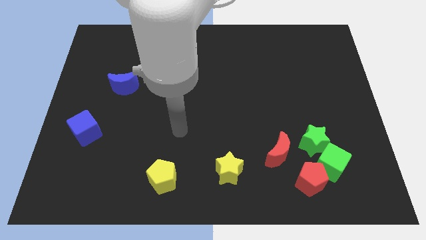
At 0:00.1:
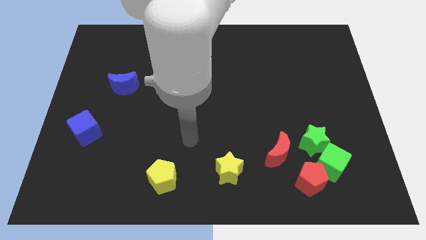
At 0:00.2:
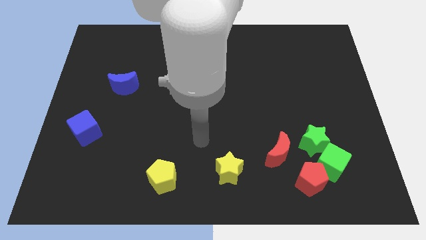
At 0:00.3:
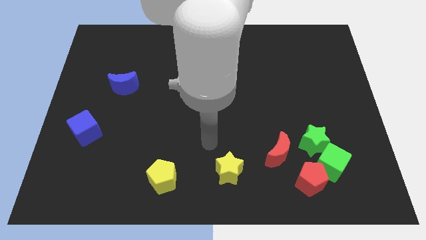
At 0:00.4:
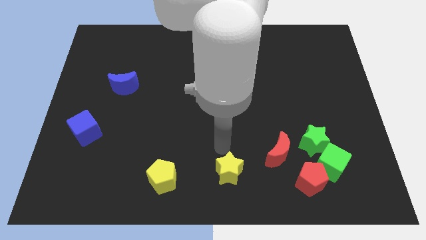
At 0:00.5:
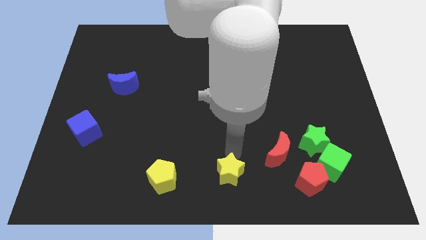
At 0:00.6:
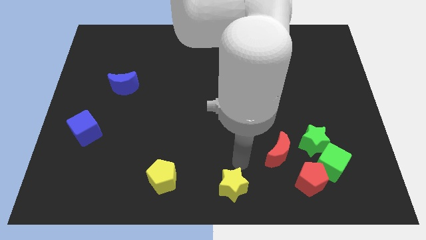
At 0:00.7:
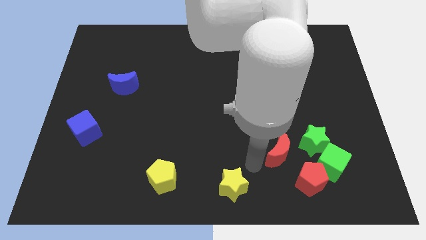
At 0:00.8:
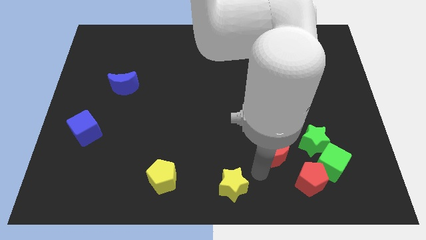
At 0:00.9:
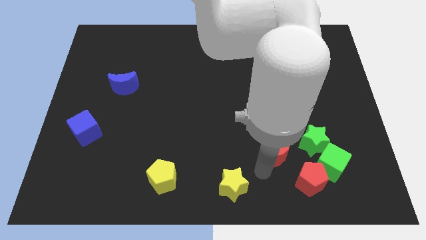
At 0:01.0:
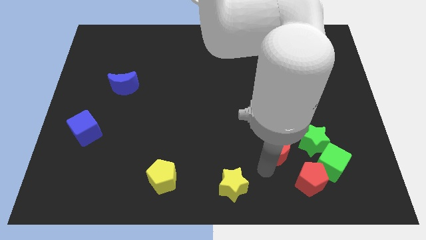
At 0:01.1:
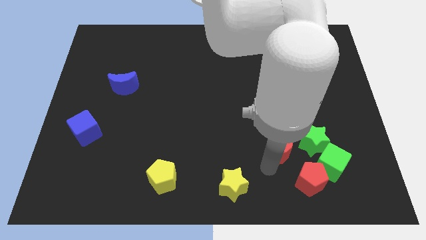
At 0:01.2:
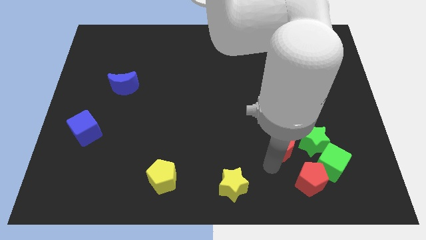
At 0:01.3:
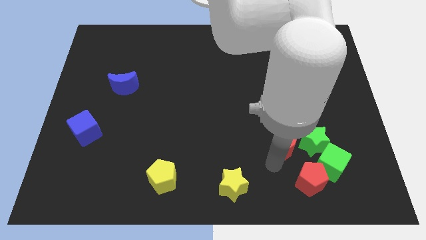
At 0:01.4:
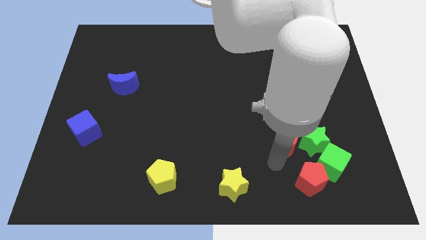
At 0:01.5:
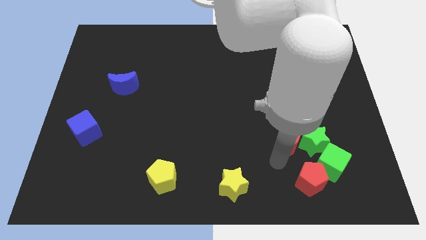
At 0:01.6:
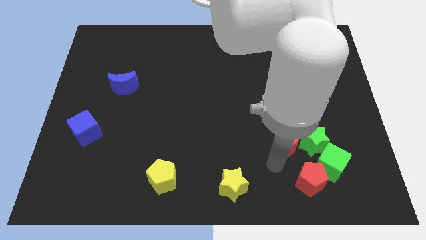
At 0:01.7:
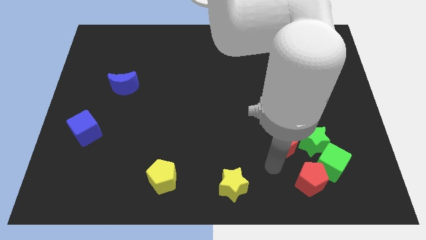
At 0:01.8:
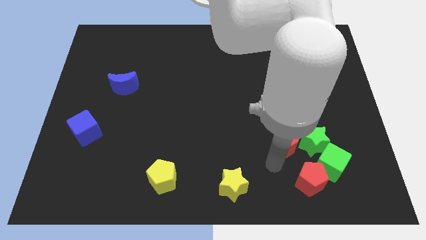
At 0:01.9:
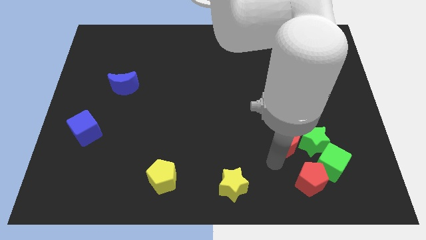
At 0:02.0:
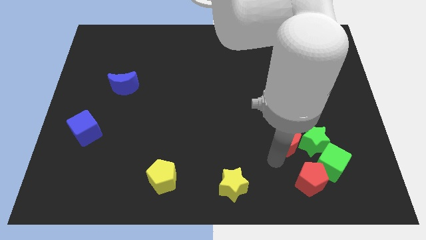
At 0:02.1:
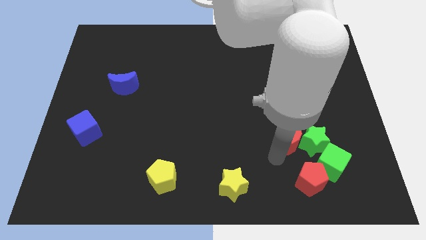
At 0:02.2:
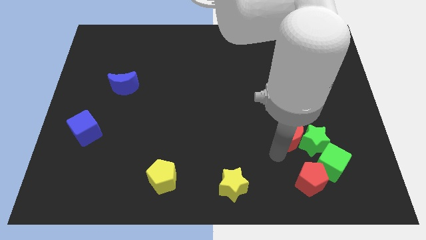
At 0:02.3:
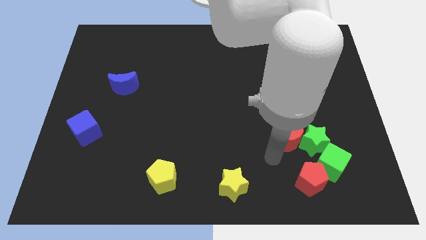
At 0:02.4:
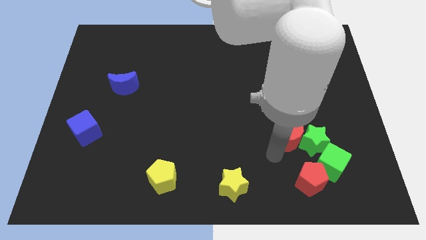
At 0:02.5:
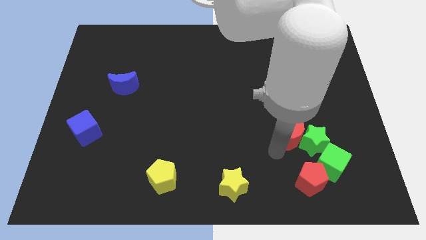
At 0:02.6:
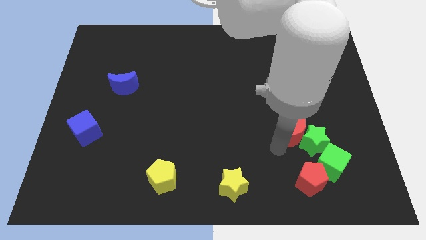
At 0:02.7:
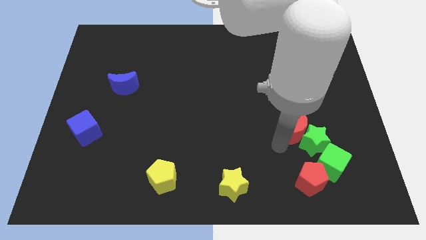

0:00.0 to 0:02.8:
move the red moon upwards and right a little bit

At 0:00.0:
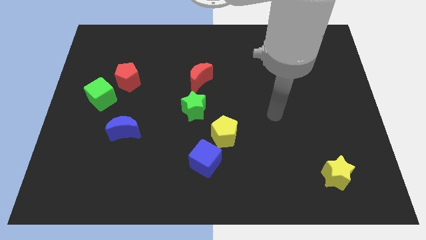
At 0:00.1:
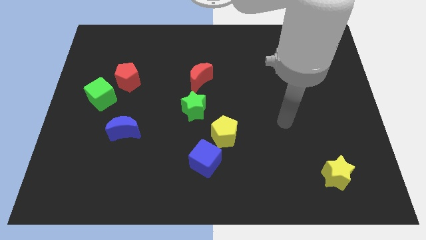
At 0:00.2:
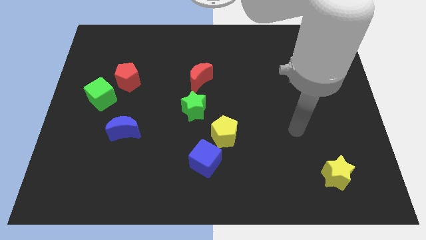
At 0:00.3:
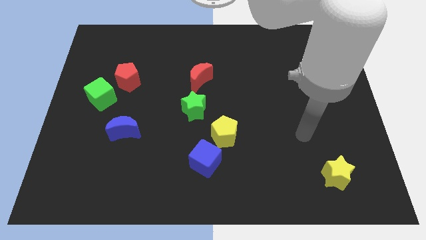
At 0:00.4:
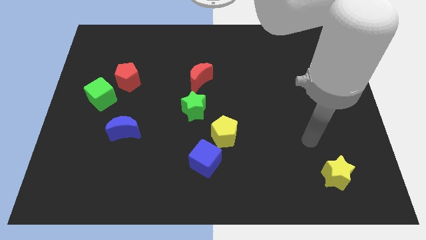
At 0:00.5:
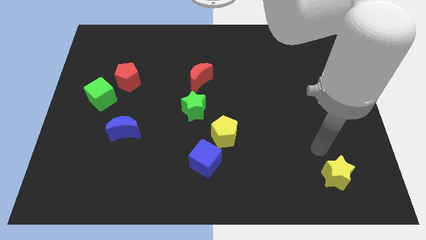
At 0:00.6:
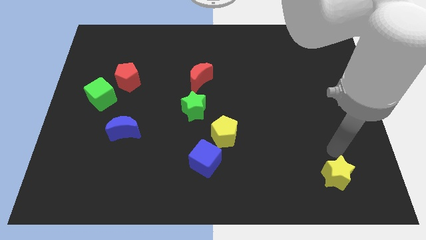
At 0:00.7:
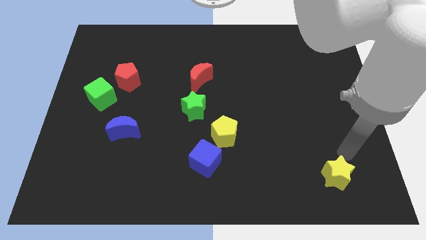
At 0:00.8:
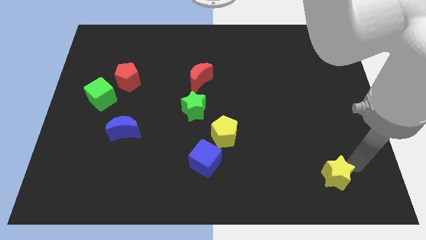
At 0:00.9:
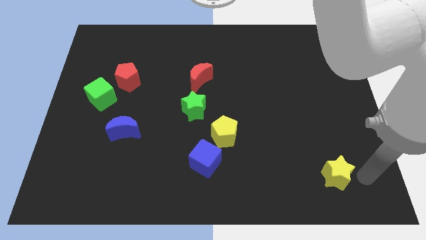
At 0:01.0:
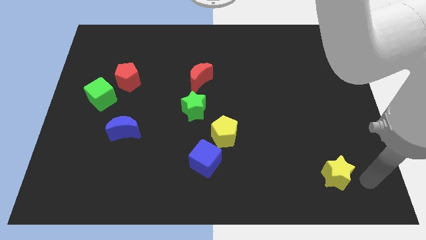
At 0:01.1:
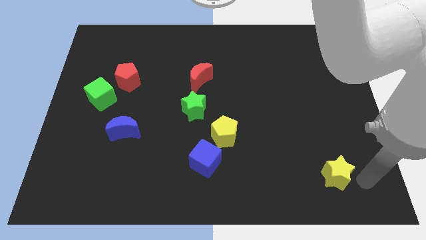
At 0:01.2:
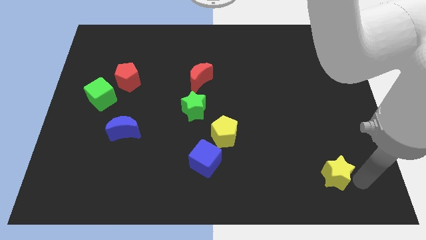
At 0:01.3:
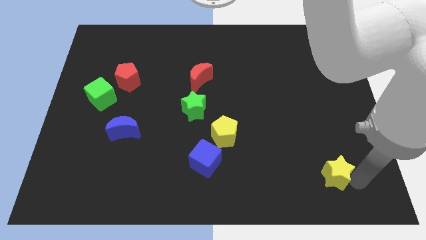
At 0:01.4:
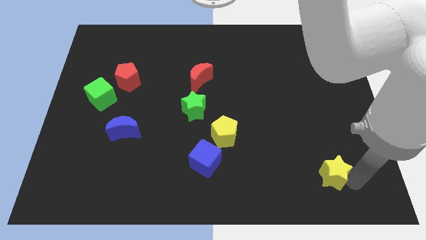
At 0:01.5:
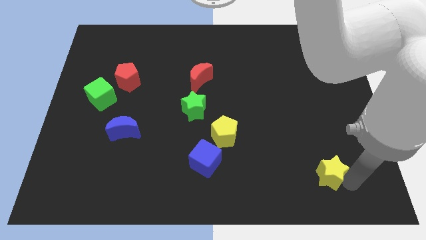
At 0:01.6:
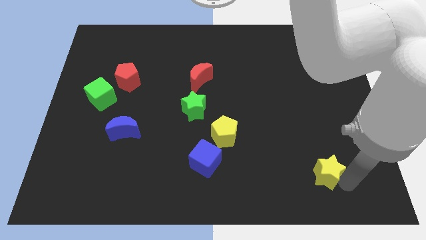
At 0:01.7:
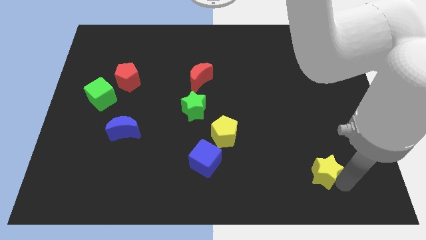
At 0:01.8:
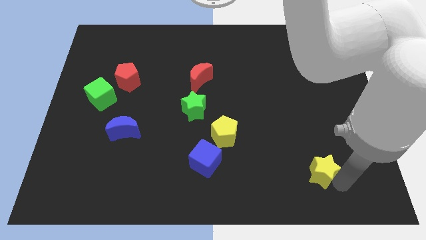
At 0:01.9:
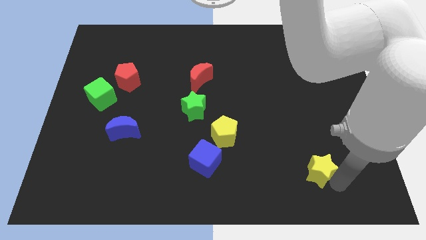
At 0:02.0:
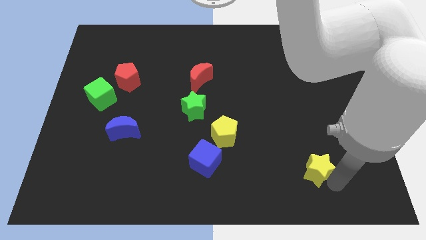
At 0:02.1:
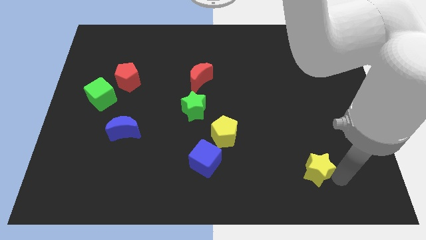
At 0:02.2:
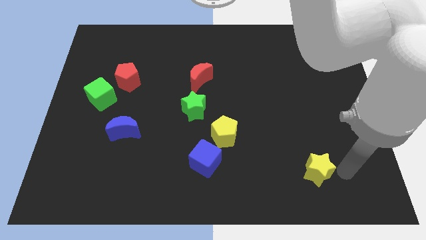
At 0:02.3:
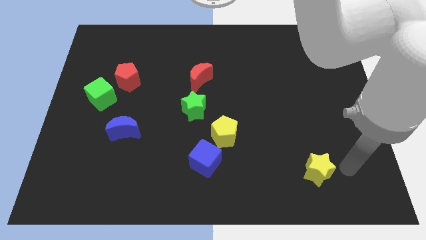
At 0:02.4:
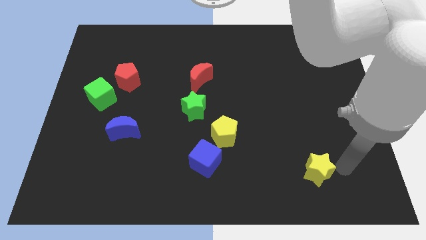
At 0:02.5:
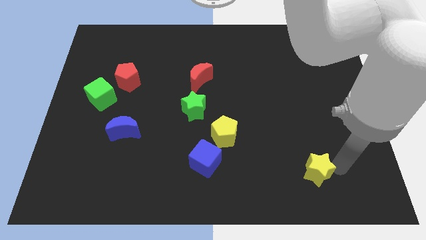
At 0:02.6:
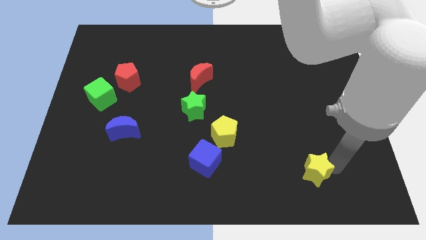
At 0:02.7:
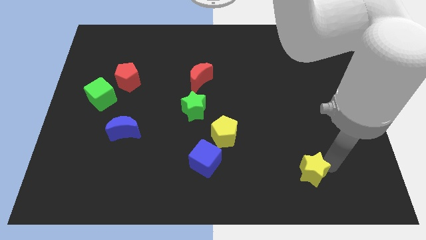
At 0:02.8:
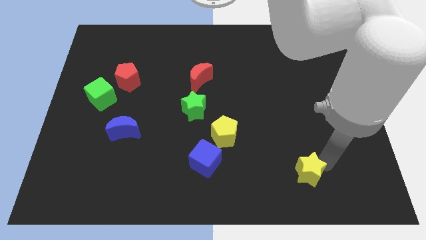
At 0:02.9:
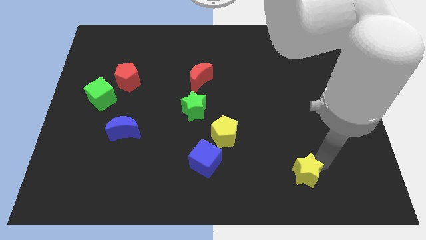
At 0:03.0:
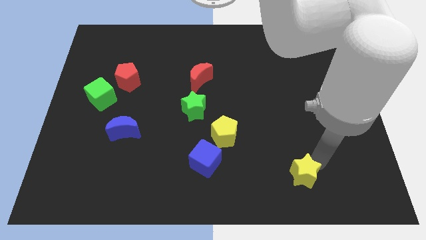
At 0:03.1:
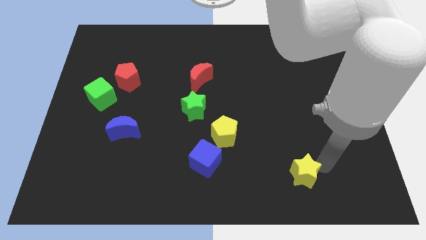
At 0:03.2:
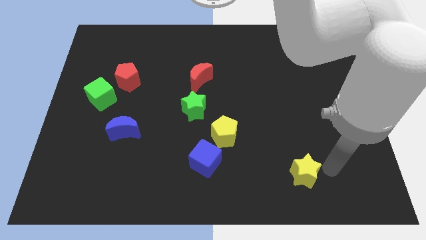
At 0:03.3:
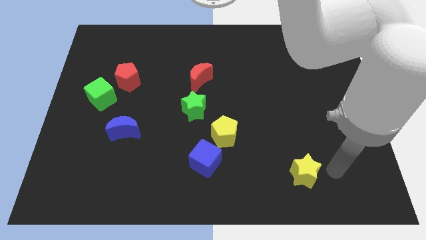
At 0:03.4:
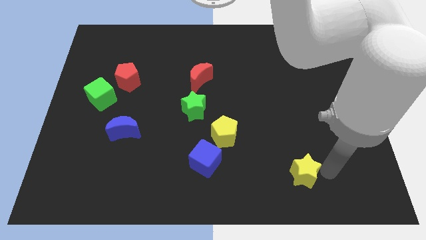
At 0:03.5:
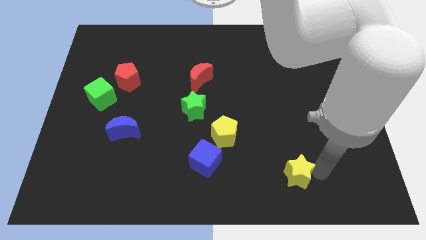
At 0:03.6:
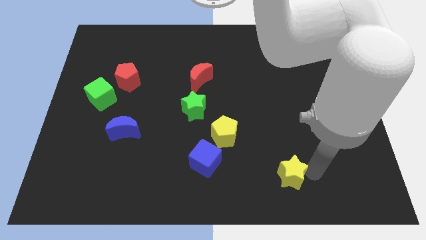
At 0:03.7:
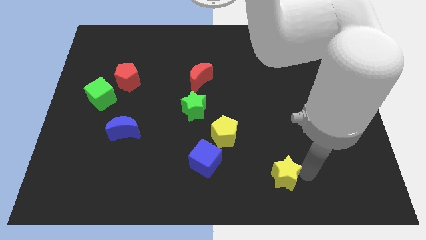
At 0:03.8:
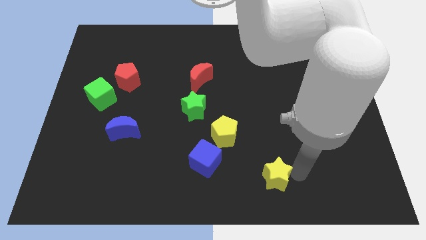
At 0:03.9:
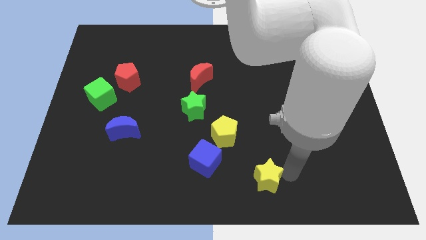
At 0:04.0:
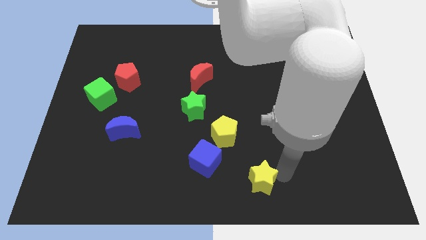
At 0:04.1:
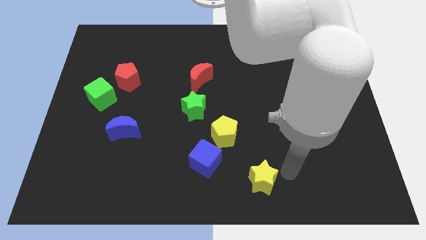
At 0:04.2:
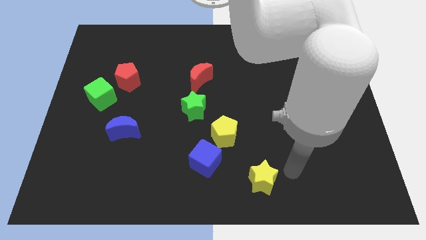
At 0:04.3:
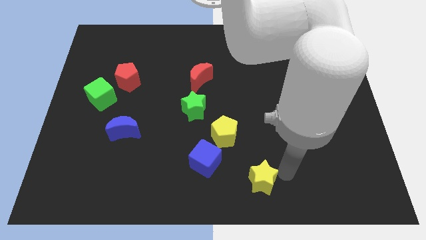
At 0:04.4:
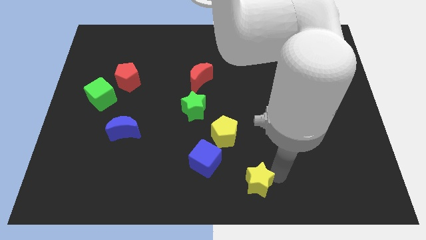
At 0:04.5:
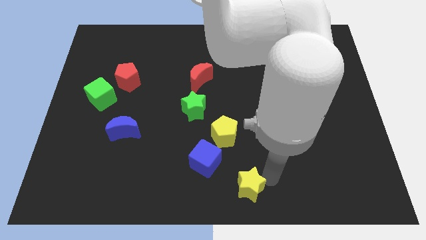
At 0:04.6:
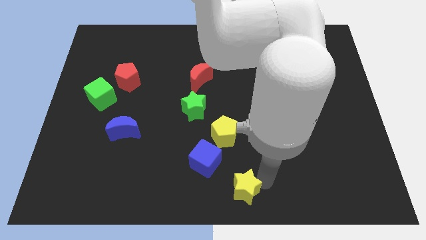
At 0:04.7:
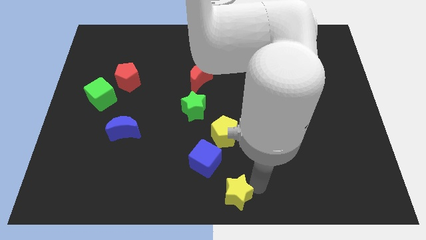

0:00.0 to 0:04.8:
move the yellow star to the left
